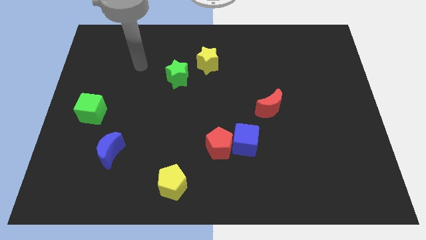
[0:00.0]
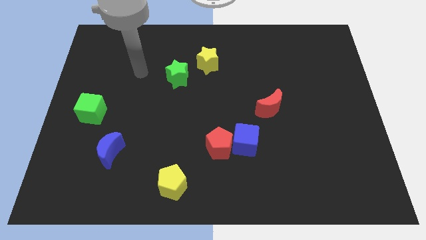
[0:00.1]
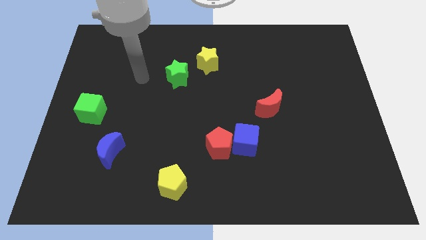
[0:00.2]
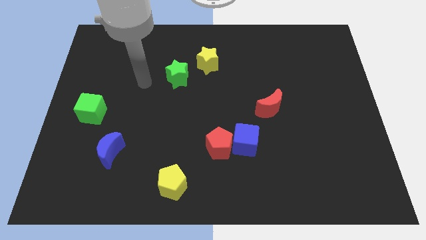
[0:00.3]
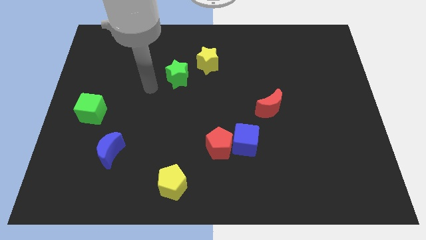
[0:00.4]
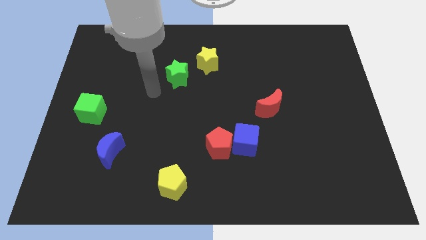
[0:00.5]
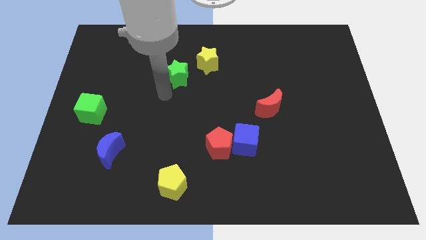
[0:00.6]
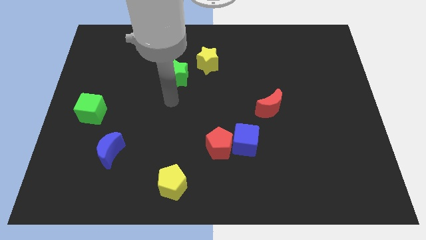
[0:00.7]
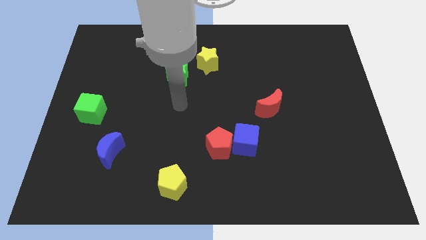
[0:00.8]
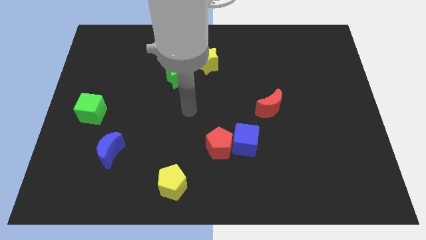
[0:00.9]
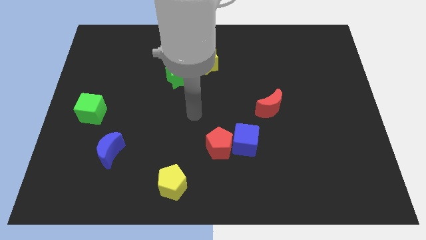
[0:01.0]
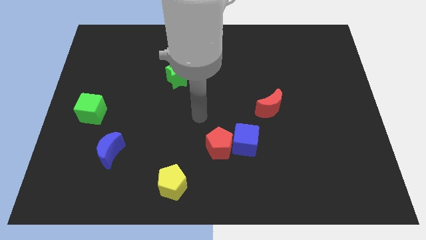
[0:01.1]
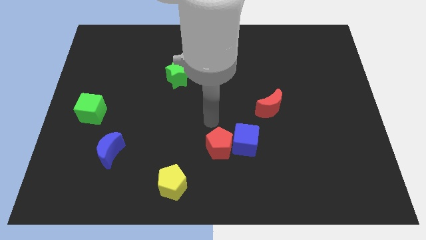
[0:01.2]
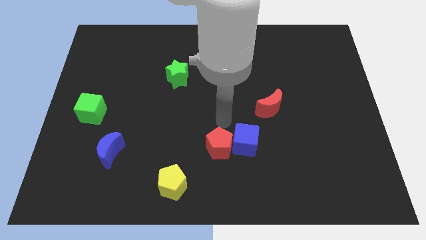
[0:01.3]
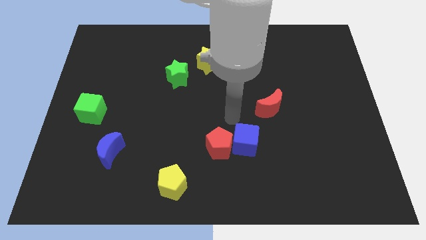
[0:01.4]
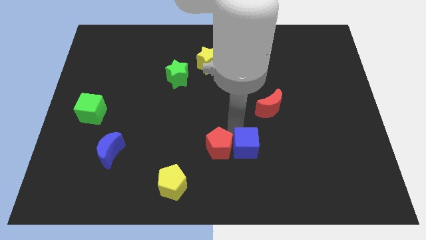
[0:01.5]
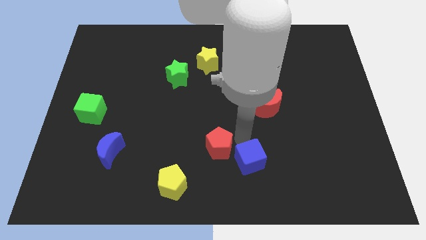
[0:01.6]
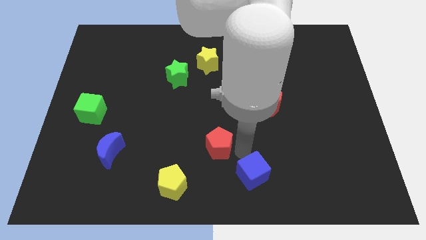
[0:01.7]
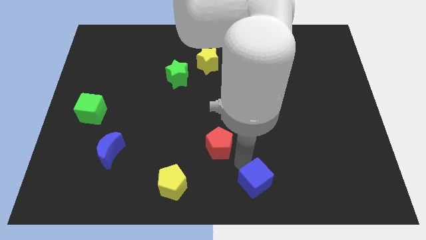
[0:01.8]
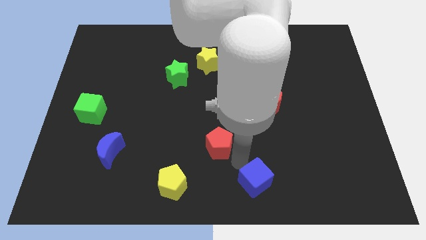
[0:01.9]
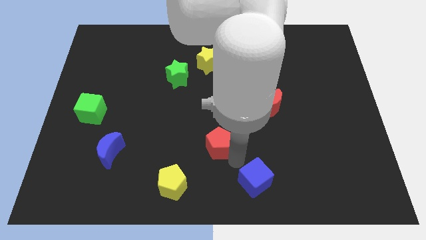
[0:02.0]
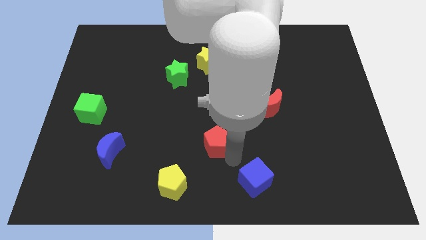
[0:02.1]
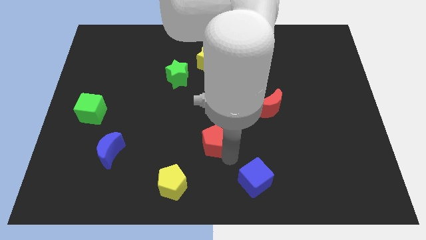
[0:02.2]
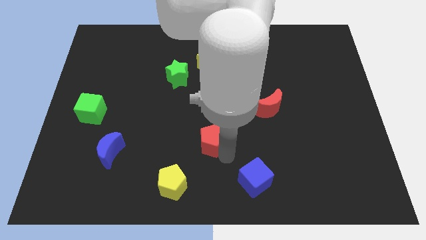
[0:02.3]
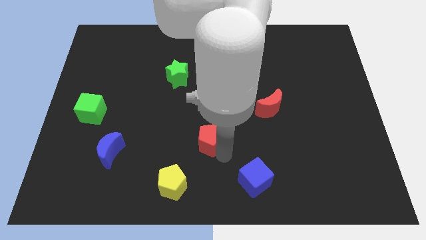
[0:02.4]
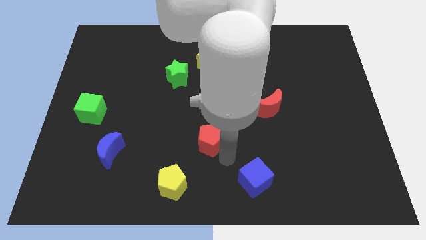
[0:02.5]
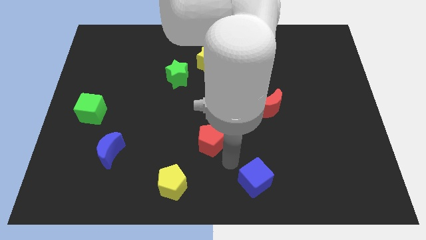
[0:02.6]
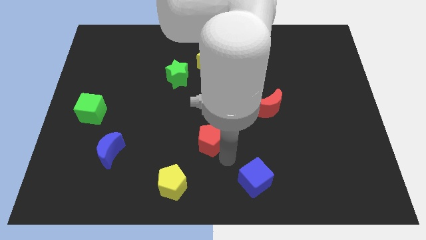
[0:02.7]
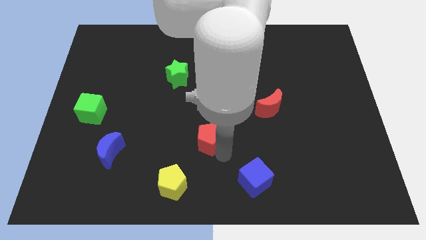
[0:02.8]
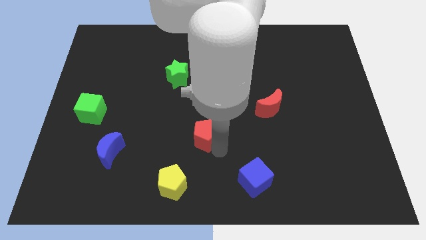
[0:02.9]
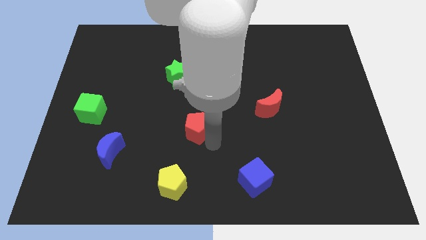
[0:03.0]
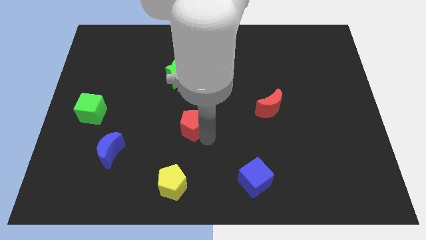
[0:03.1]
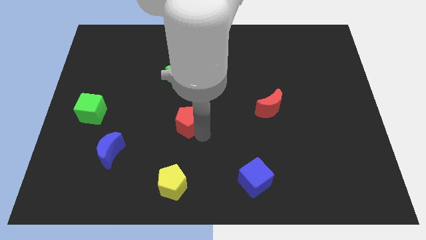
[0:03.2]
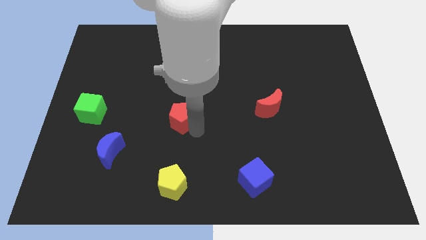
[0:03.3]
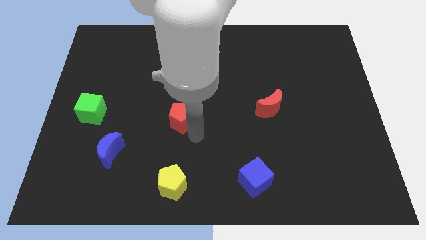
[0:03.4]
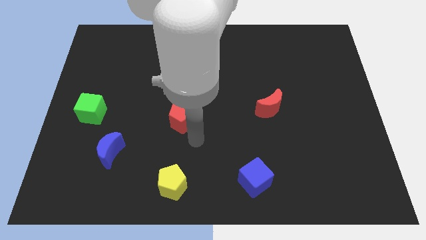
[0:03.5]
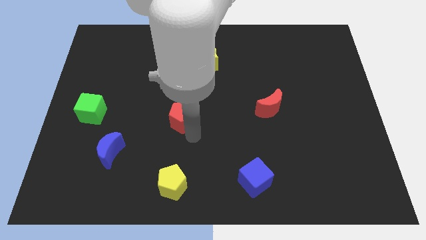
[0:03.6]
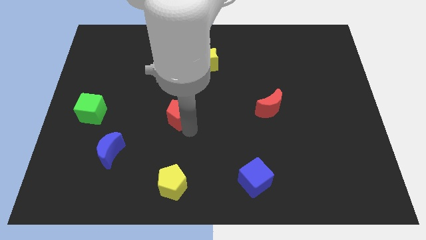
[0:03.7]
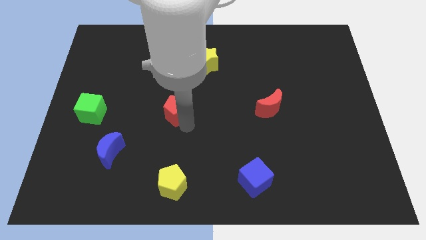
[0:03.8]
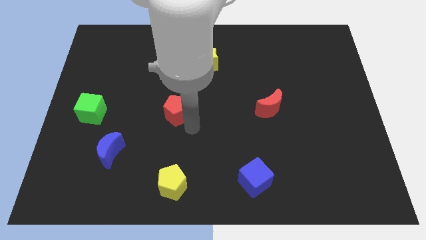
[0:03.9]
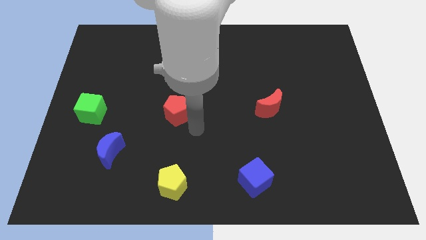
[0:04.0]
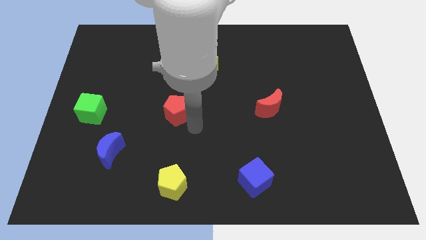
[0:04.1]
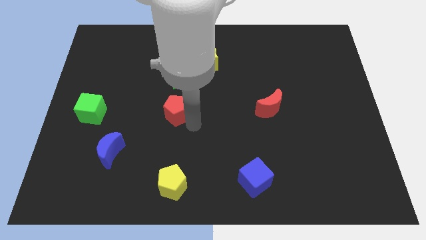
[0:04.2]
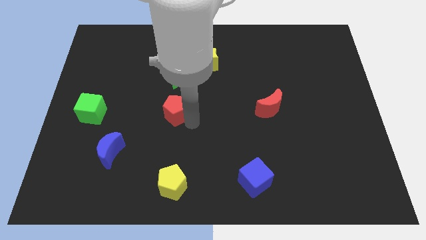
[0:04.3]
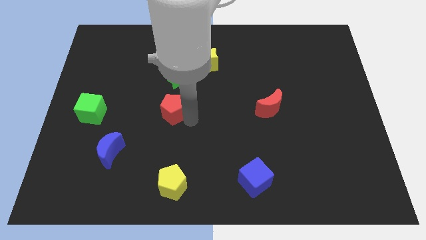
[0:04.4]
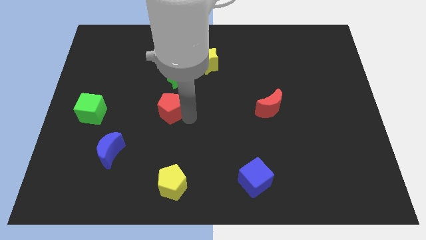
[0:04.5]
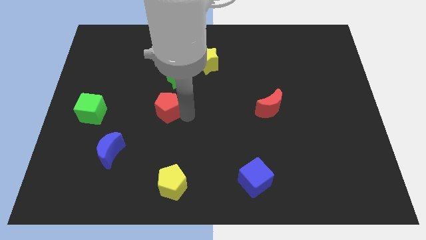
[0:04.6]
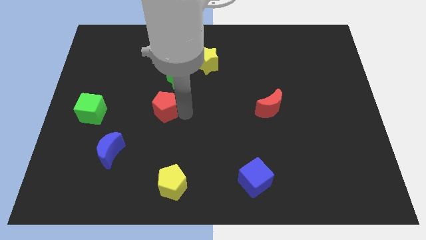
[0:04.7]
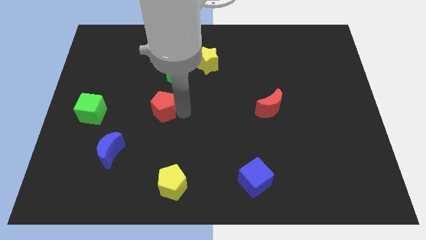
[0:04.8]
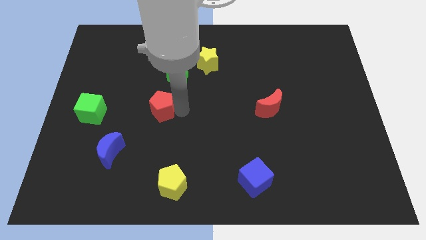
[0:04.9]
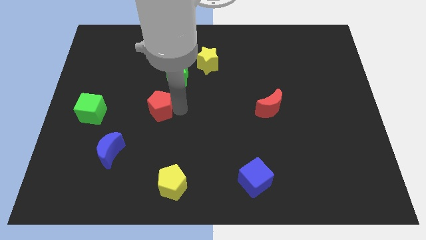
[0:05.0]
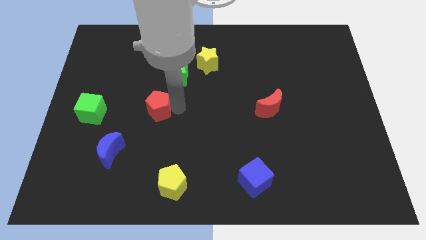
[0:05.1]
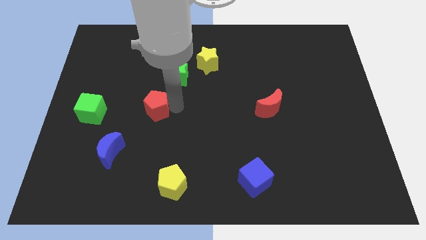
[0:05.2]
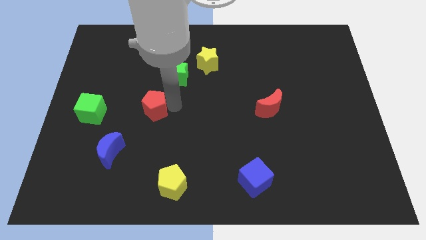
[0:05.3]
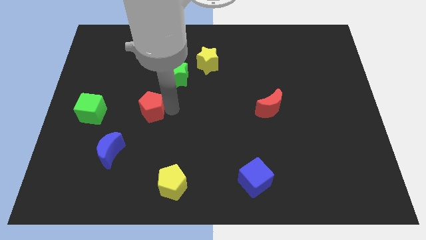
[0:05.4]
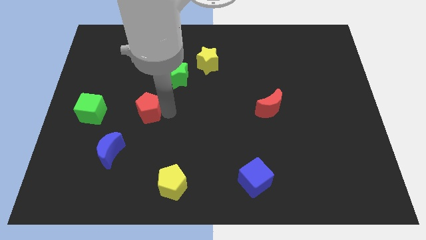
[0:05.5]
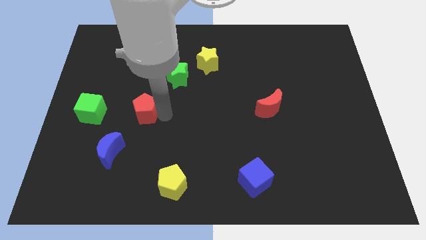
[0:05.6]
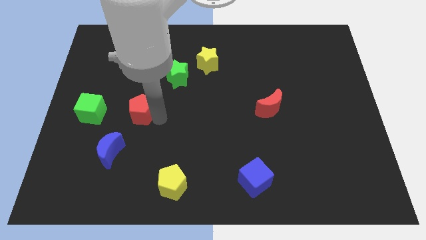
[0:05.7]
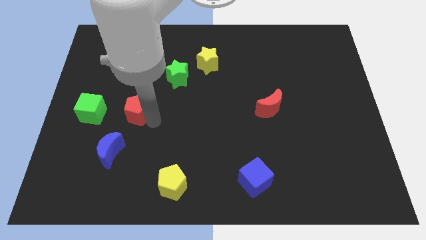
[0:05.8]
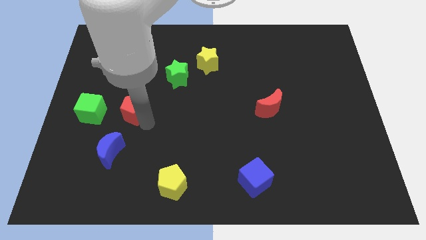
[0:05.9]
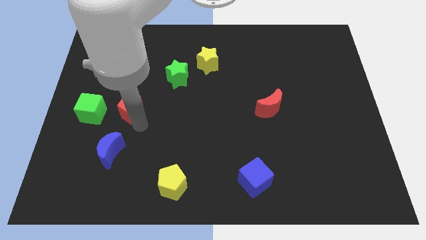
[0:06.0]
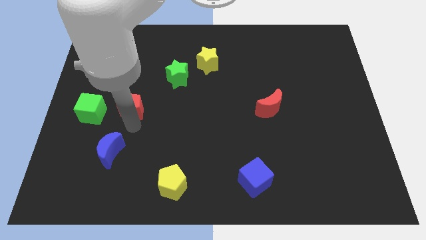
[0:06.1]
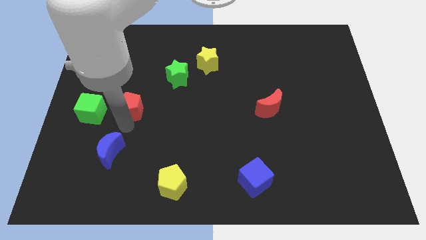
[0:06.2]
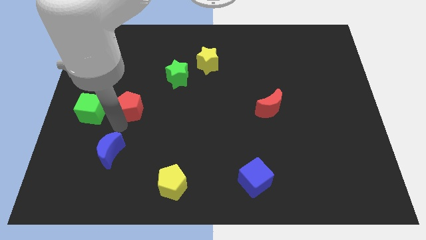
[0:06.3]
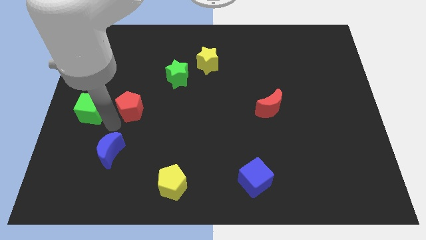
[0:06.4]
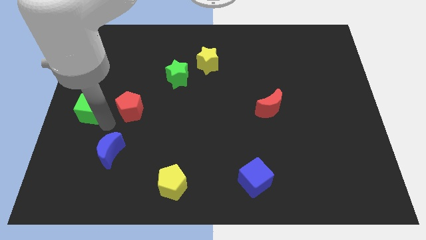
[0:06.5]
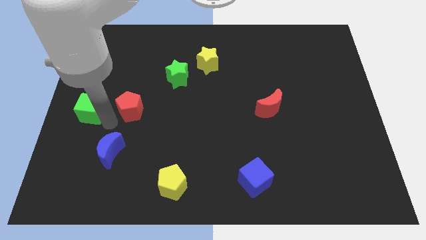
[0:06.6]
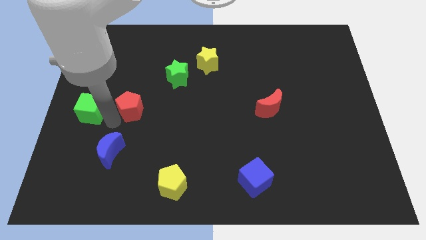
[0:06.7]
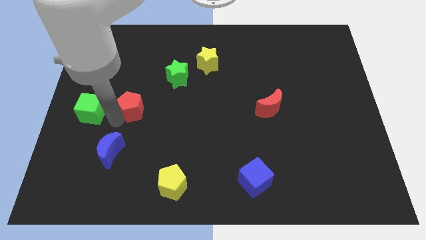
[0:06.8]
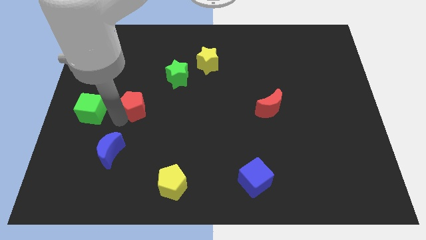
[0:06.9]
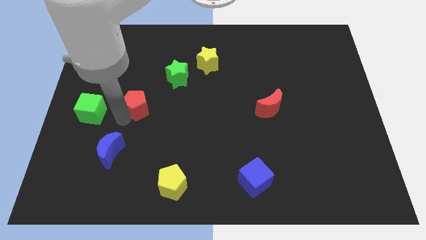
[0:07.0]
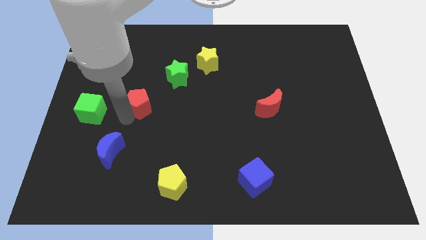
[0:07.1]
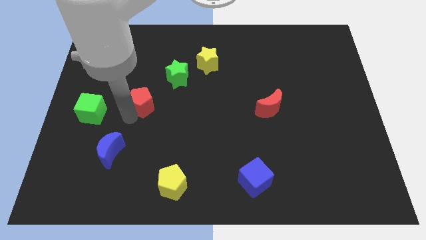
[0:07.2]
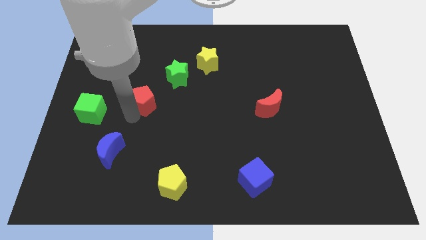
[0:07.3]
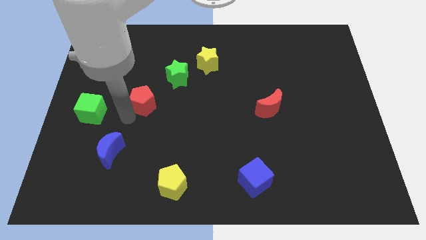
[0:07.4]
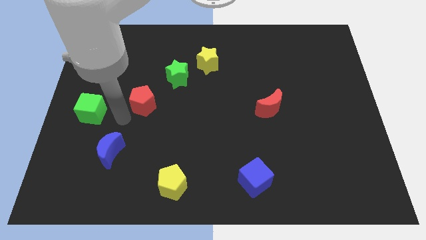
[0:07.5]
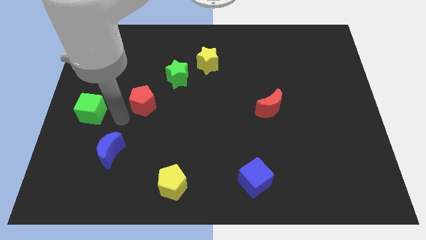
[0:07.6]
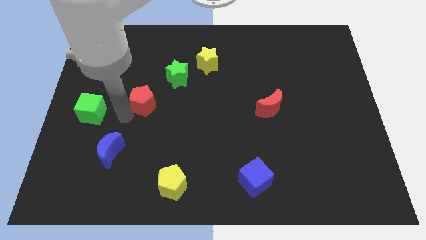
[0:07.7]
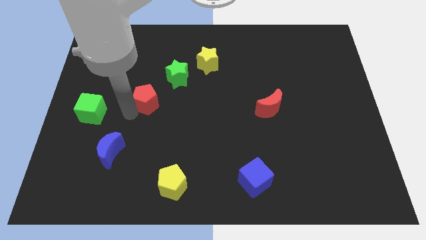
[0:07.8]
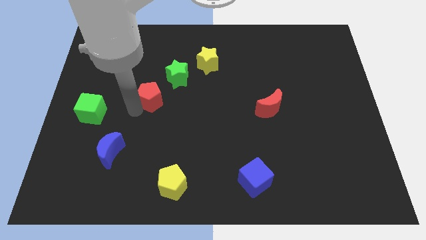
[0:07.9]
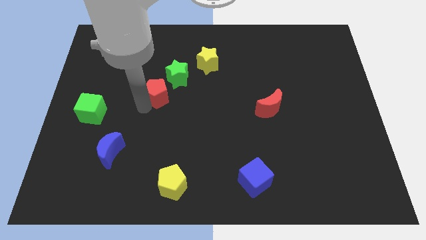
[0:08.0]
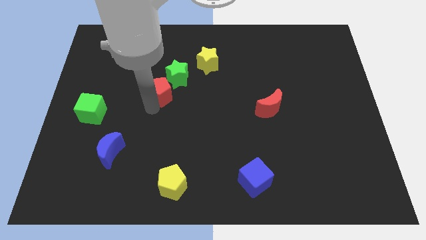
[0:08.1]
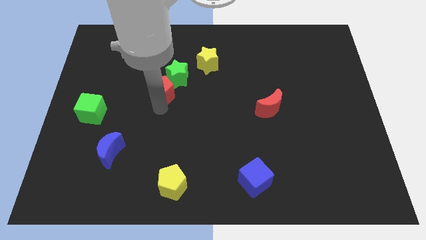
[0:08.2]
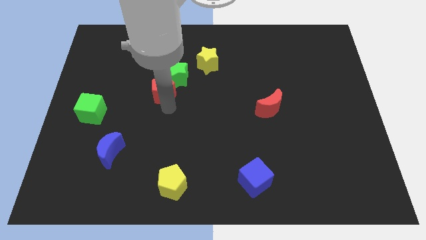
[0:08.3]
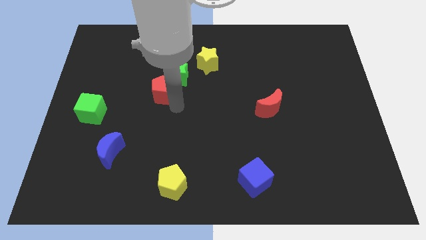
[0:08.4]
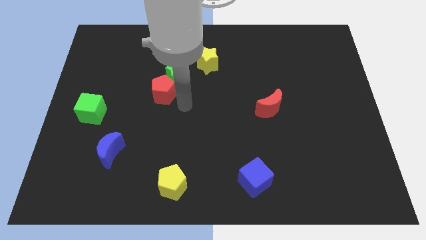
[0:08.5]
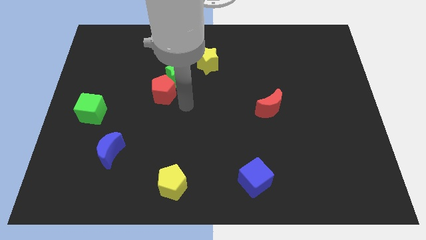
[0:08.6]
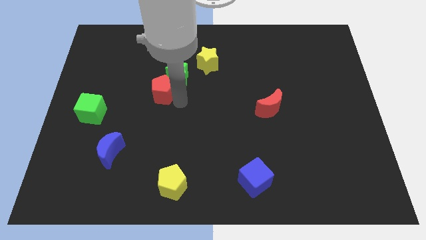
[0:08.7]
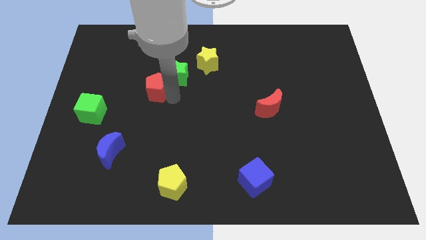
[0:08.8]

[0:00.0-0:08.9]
push the red pentagon to the left side of the green star
